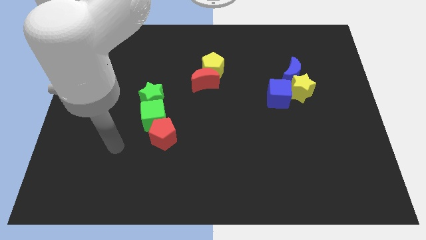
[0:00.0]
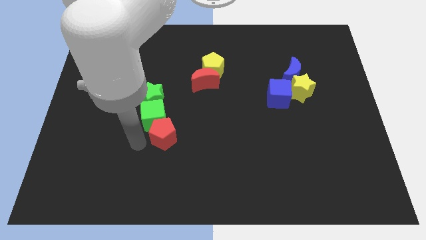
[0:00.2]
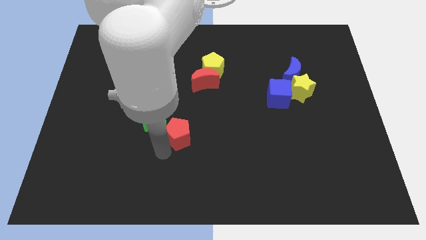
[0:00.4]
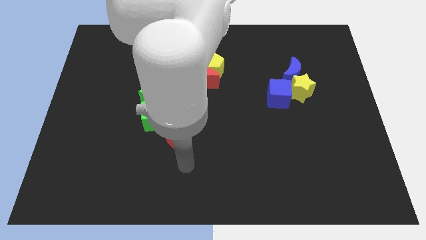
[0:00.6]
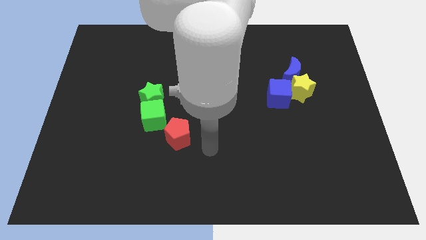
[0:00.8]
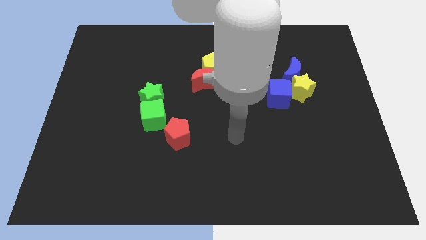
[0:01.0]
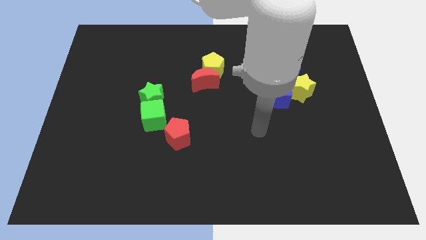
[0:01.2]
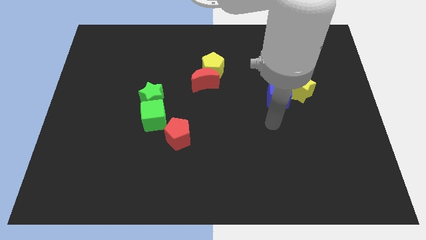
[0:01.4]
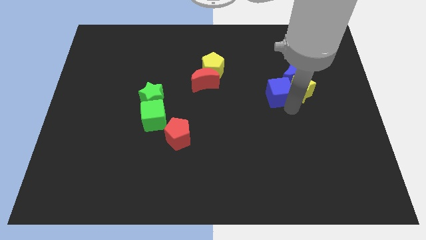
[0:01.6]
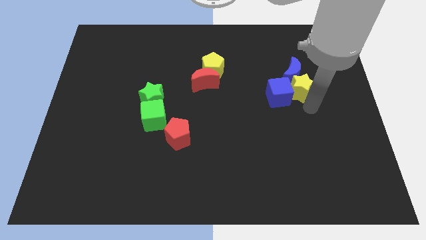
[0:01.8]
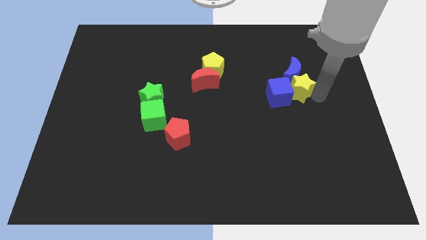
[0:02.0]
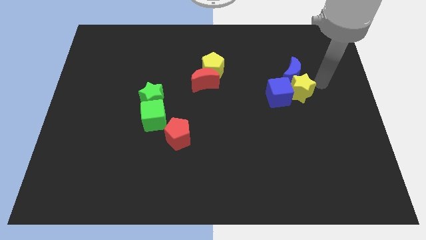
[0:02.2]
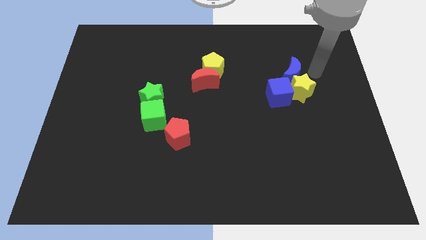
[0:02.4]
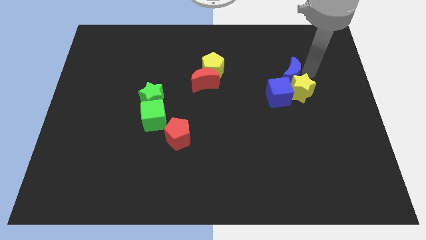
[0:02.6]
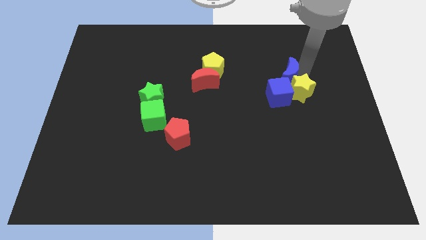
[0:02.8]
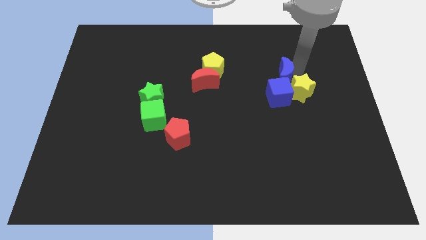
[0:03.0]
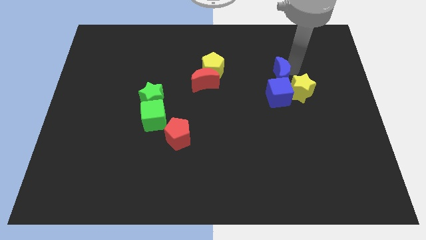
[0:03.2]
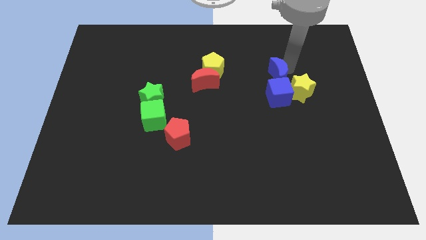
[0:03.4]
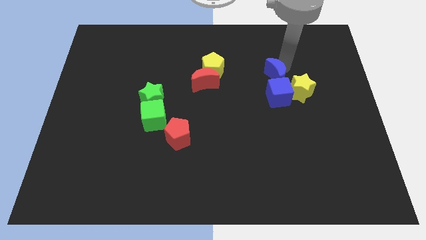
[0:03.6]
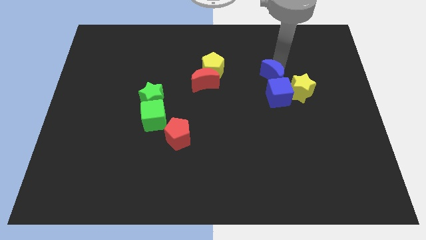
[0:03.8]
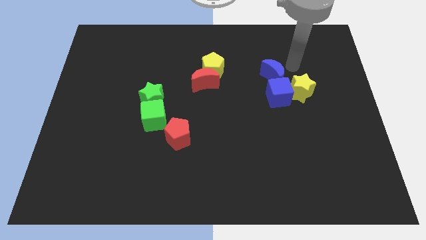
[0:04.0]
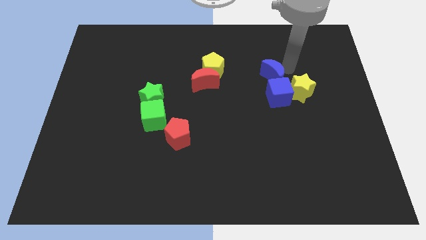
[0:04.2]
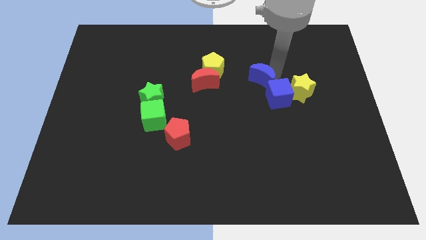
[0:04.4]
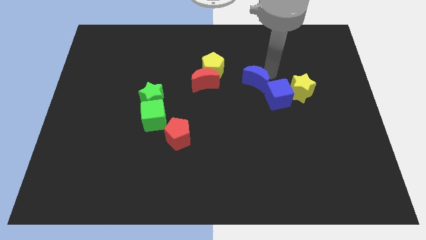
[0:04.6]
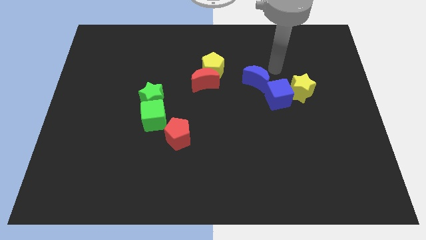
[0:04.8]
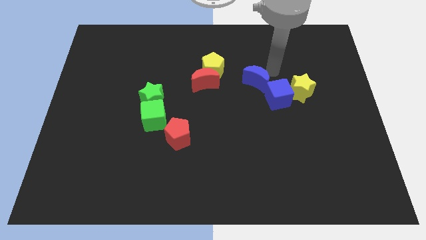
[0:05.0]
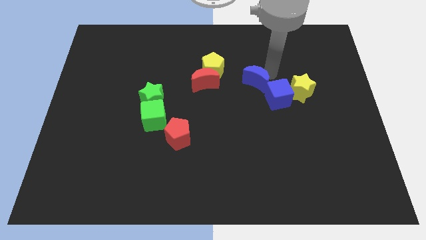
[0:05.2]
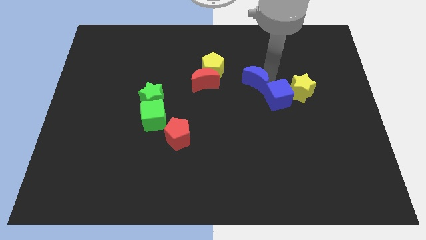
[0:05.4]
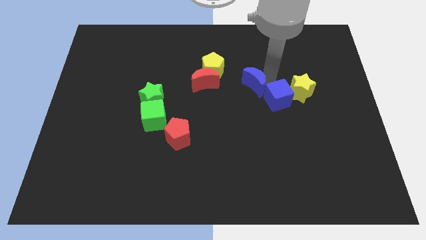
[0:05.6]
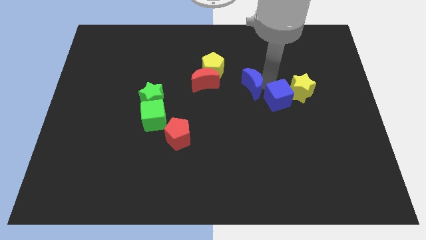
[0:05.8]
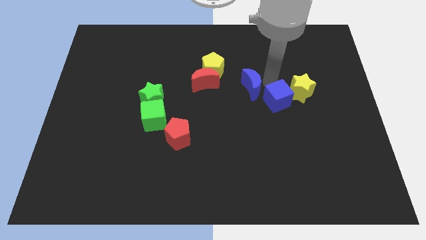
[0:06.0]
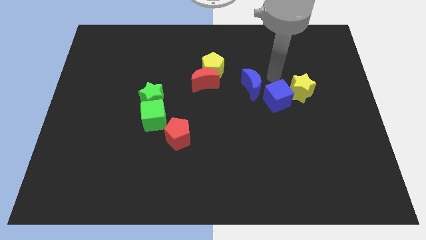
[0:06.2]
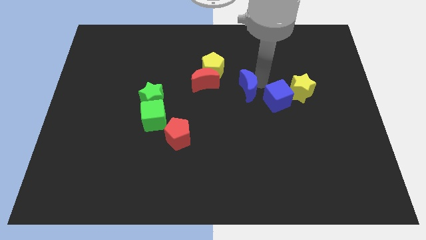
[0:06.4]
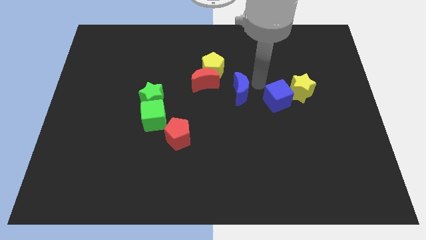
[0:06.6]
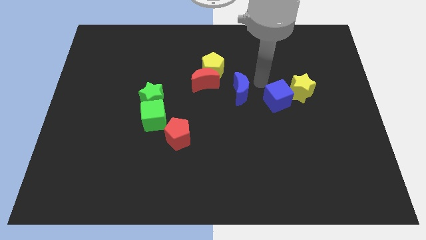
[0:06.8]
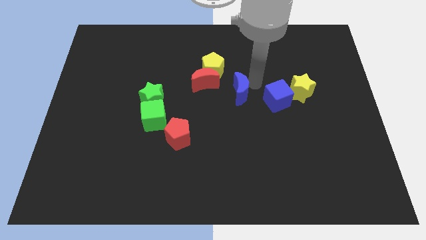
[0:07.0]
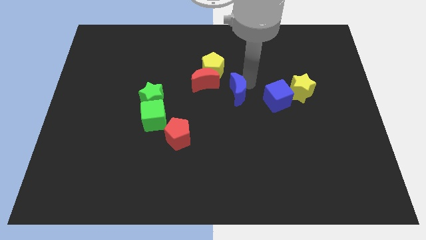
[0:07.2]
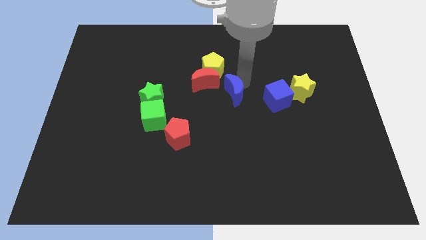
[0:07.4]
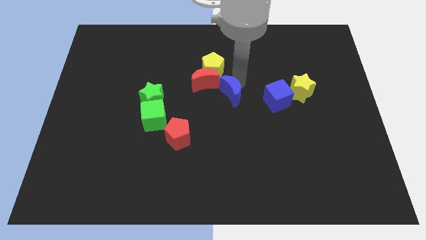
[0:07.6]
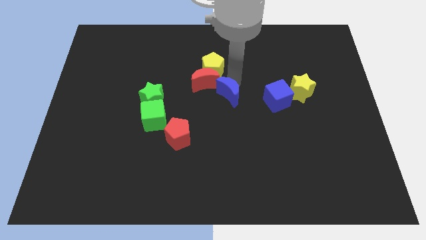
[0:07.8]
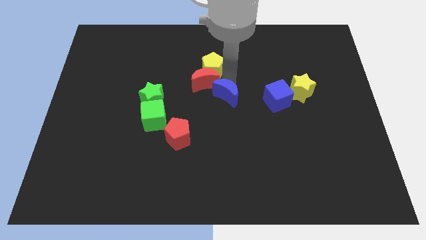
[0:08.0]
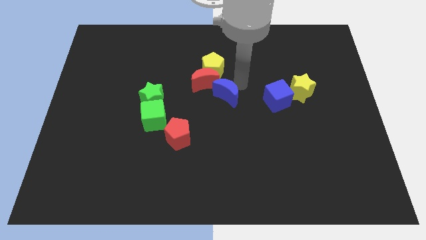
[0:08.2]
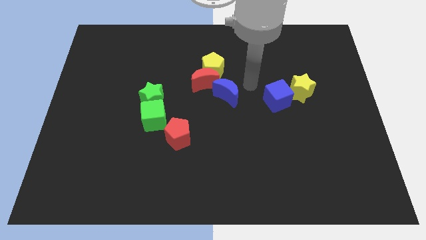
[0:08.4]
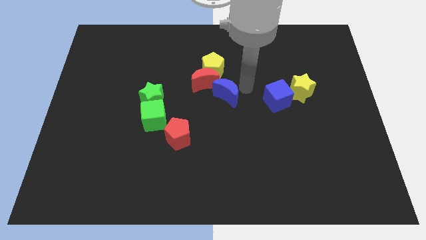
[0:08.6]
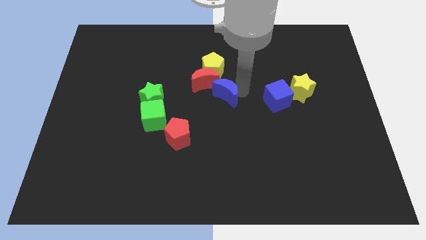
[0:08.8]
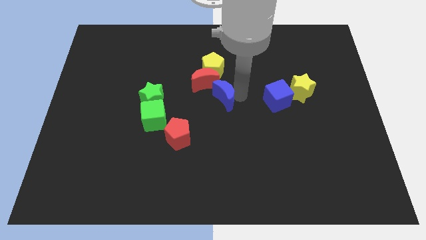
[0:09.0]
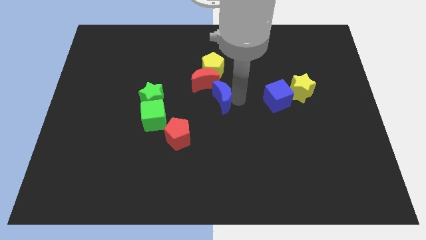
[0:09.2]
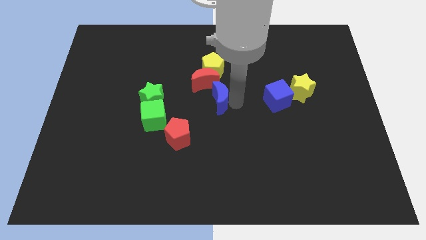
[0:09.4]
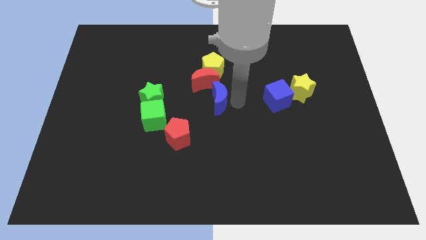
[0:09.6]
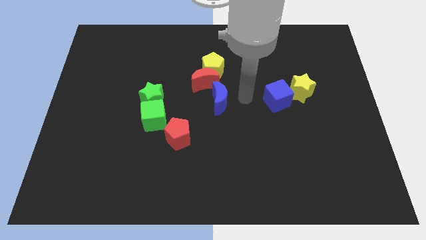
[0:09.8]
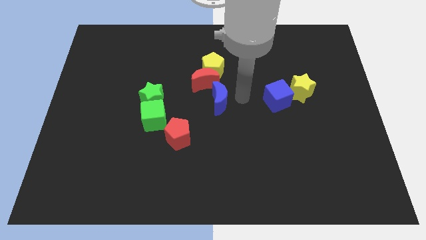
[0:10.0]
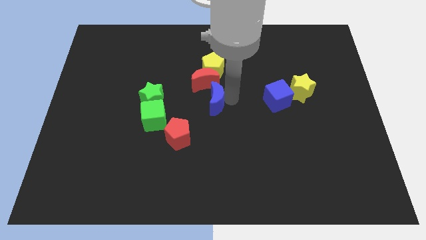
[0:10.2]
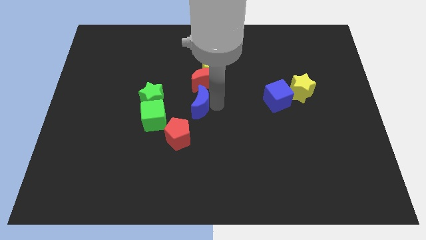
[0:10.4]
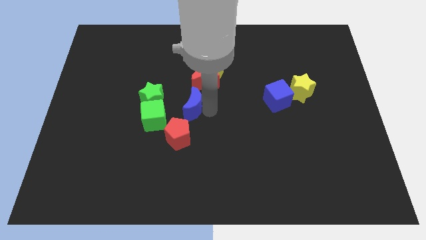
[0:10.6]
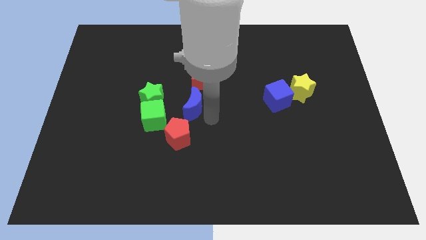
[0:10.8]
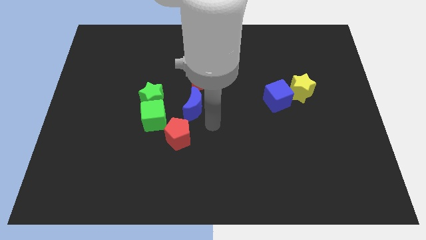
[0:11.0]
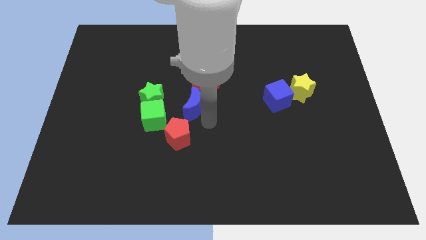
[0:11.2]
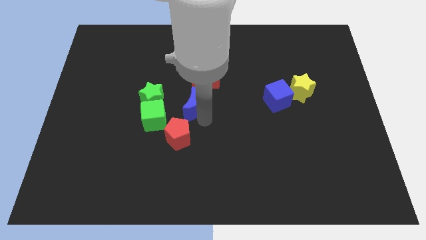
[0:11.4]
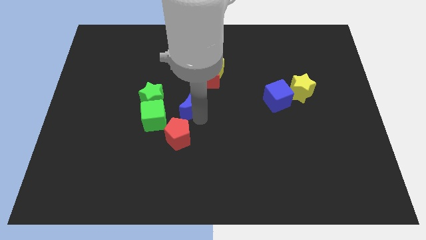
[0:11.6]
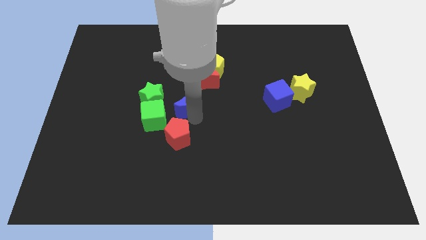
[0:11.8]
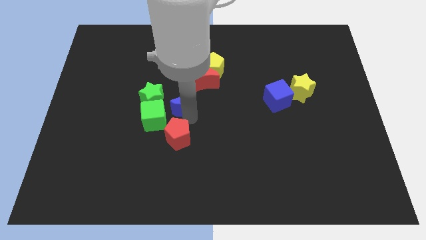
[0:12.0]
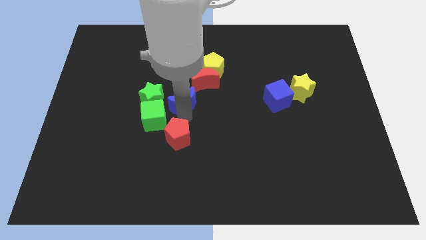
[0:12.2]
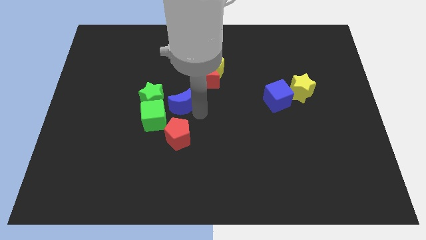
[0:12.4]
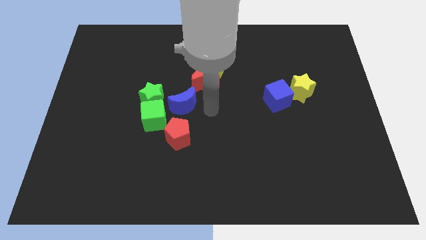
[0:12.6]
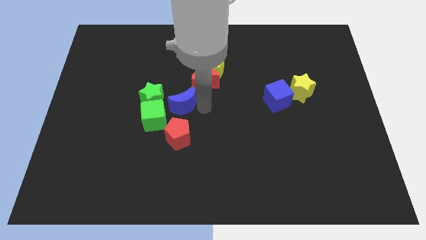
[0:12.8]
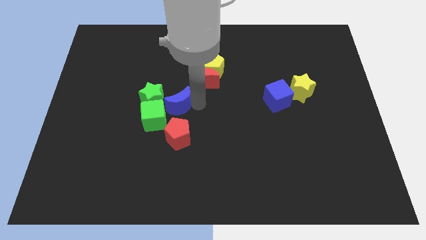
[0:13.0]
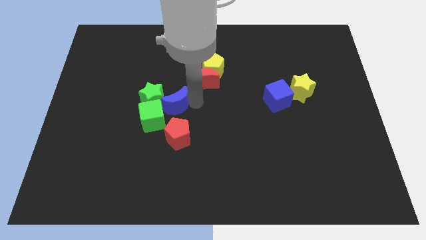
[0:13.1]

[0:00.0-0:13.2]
put the blue moon close to the green star
